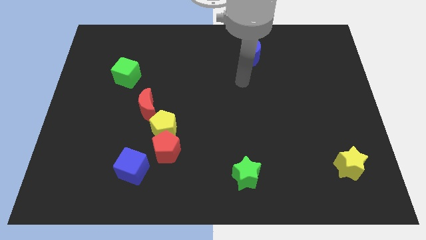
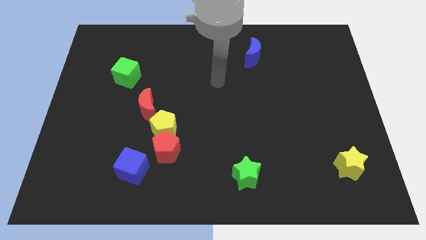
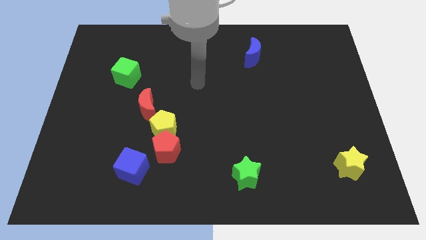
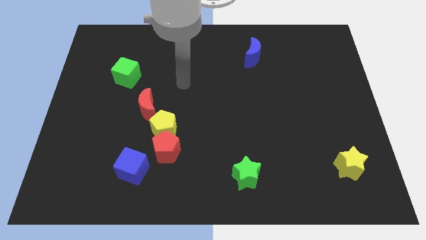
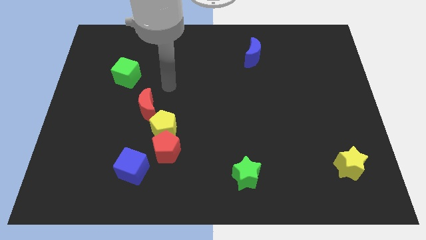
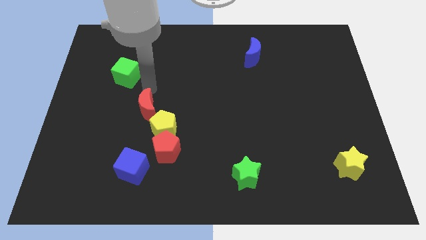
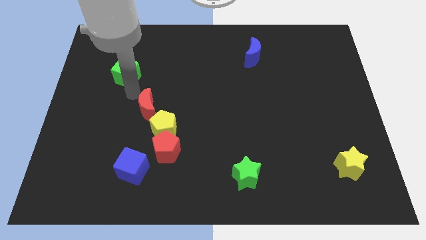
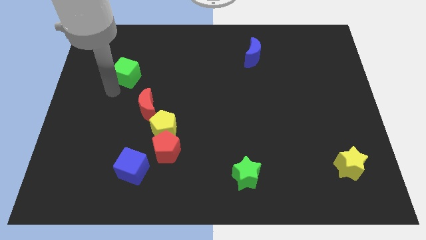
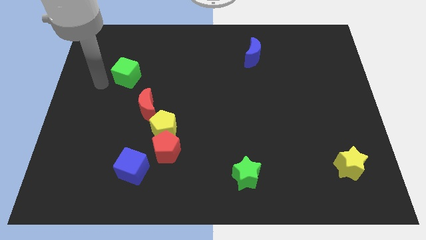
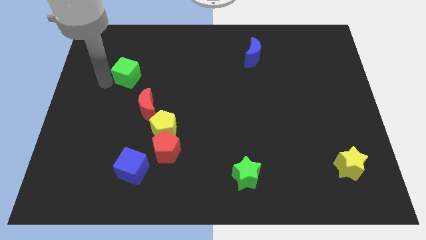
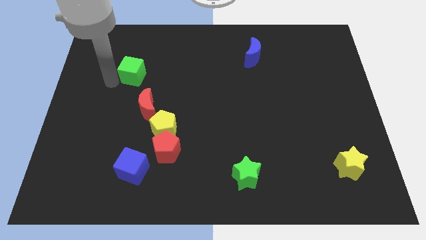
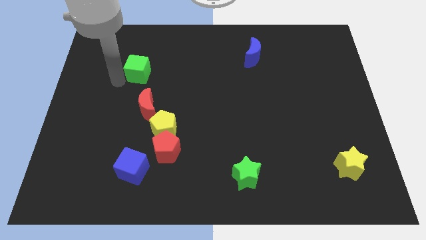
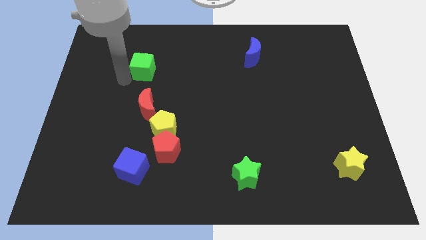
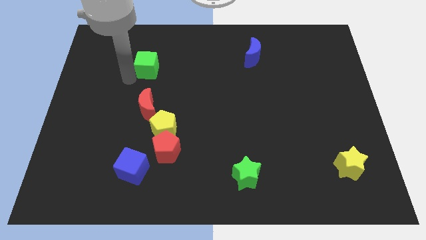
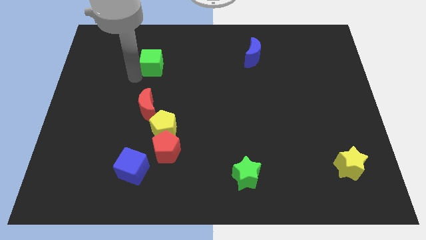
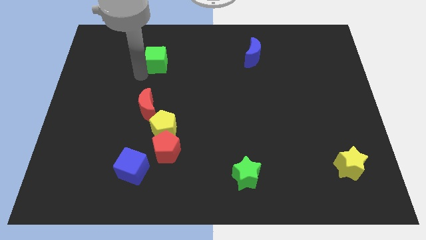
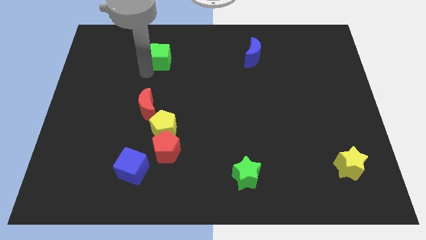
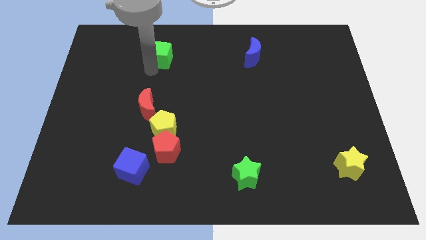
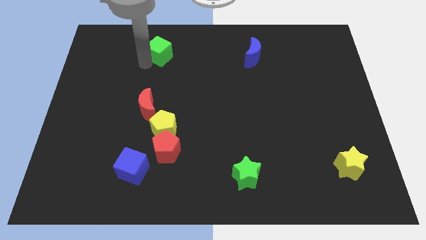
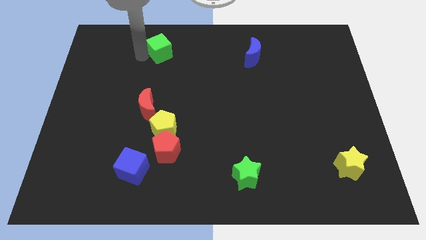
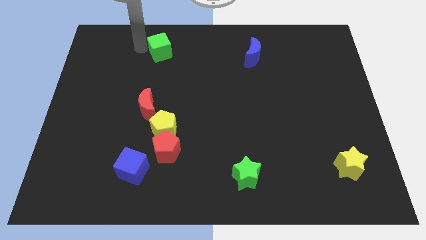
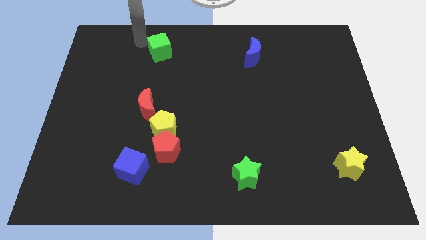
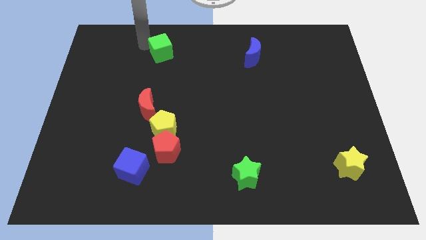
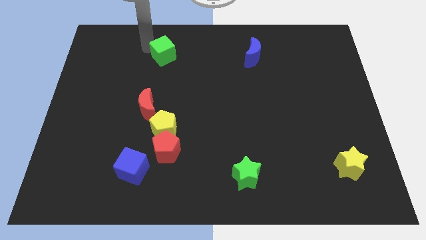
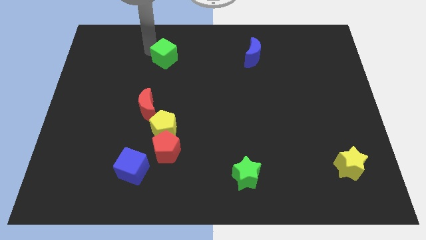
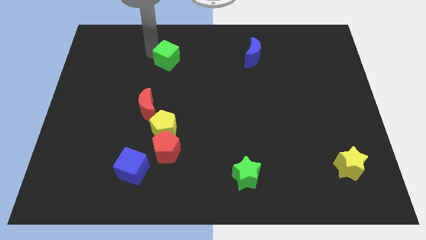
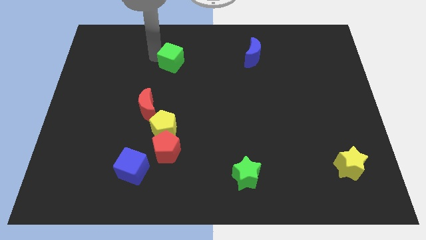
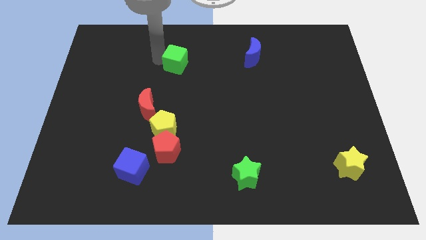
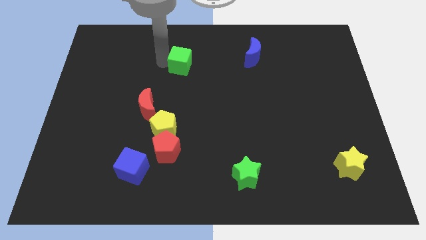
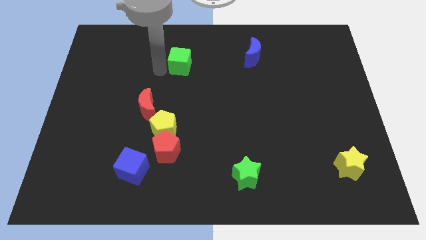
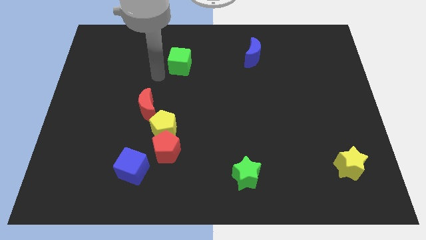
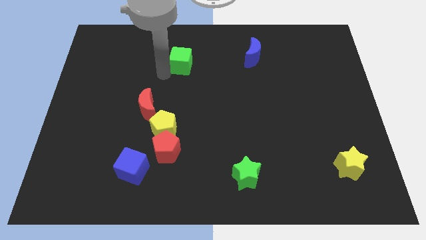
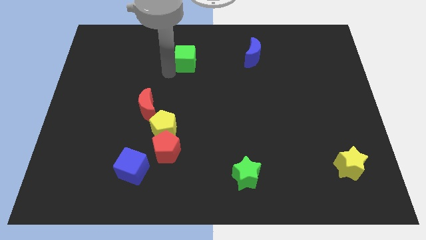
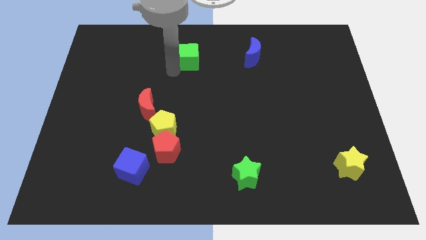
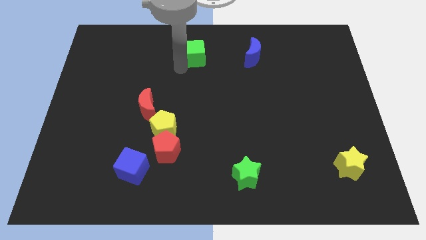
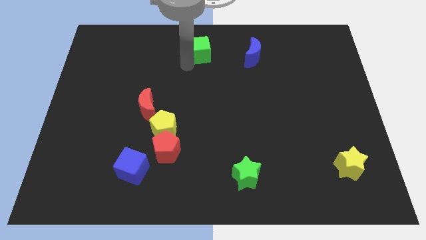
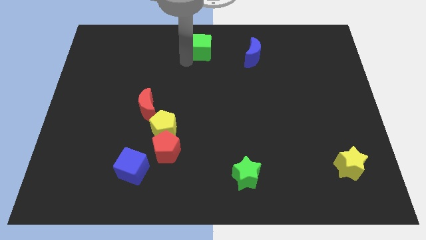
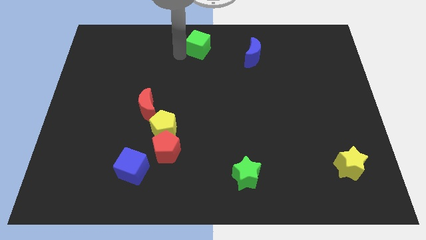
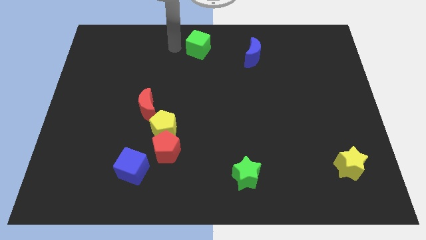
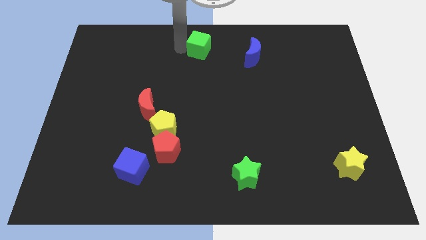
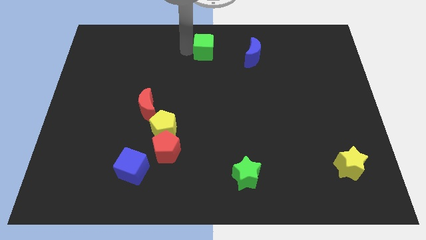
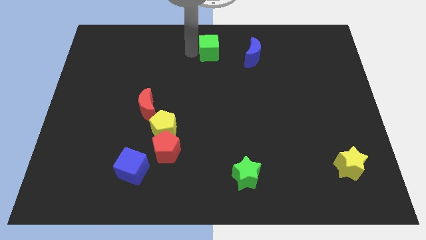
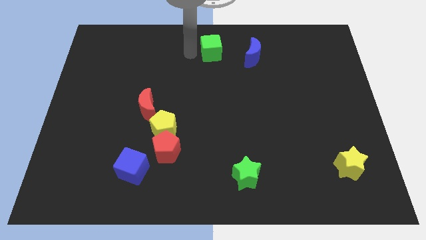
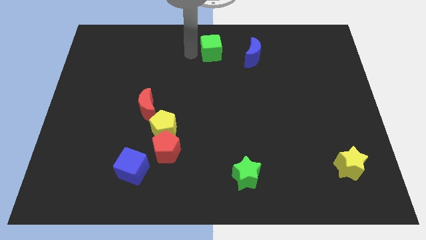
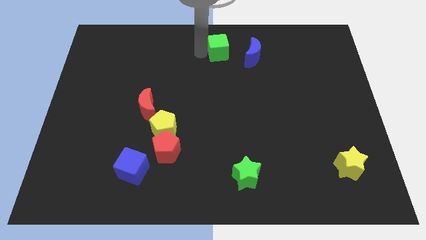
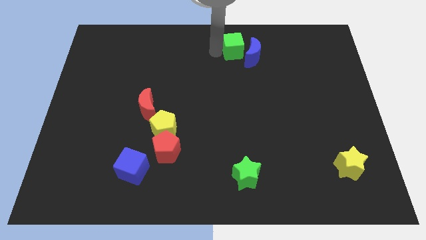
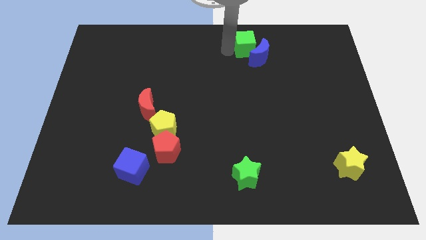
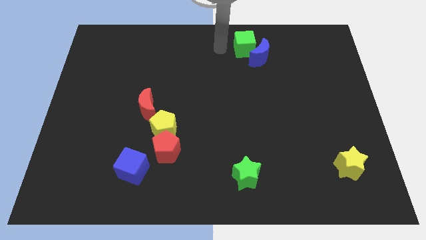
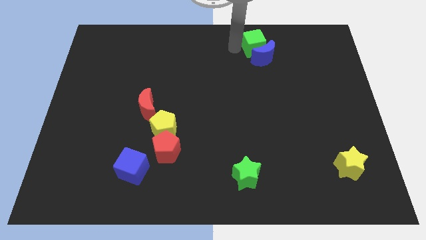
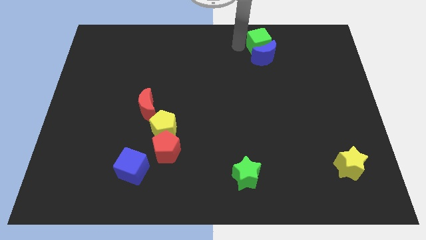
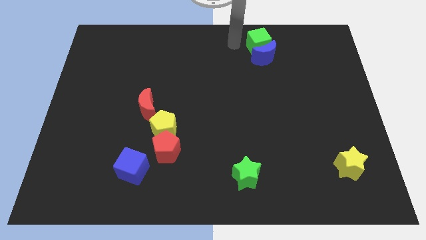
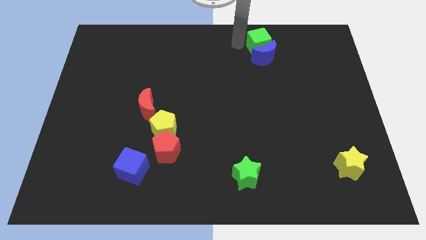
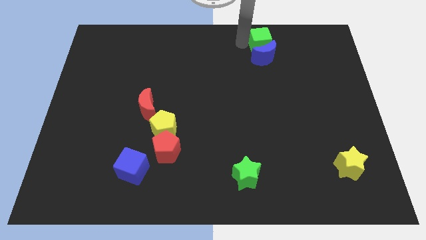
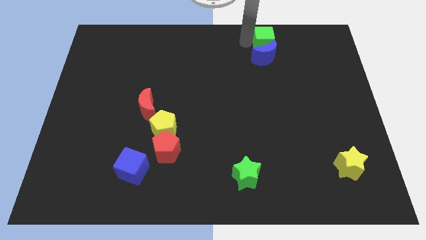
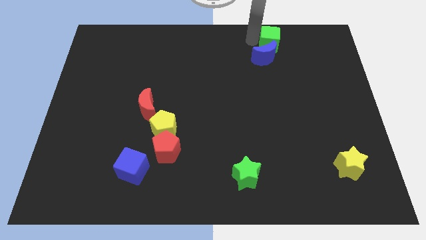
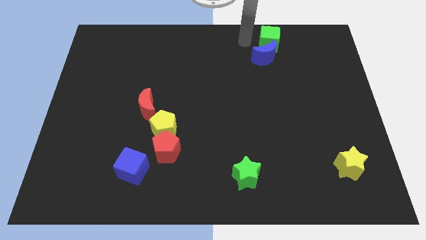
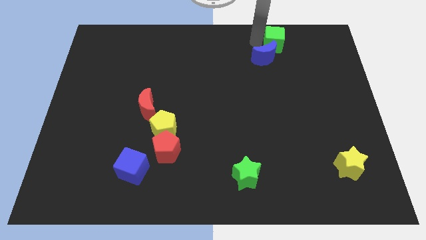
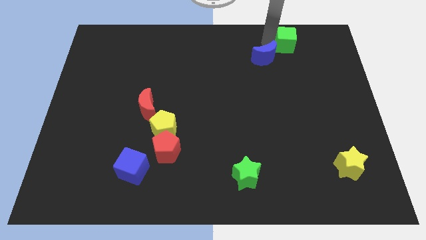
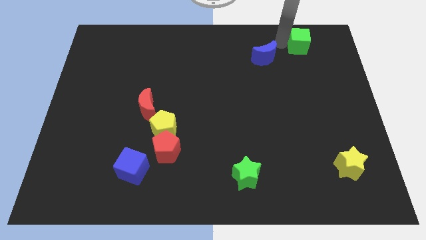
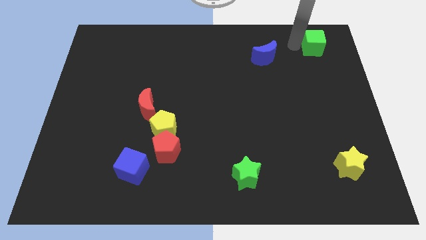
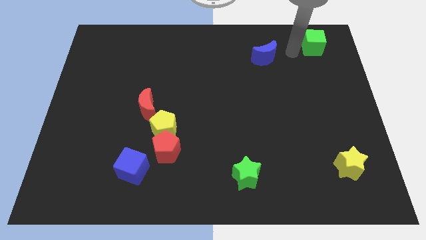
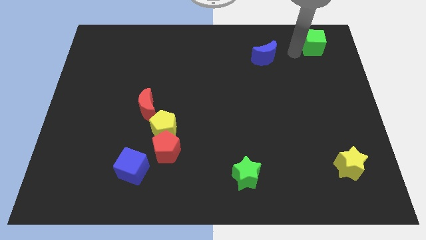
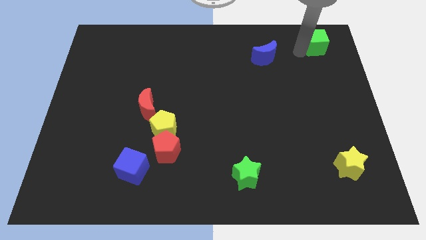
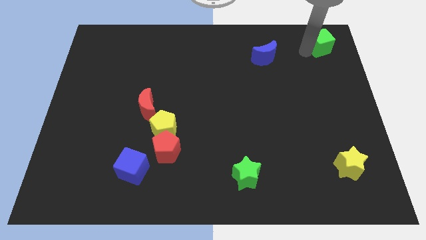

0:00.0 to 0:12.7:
slide the green cube to the top right of the board
